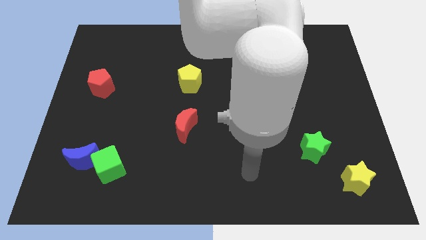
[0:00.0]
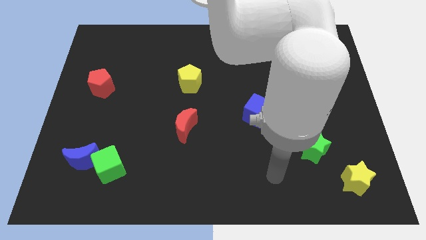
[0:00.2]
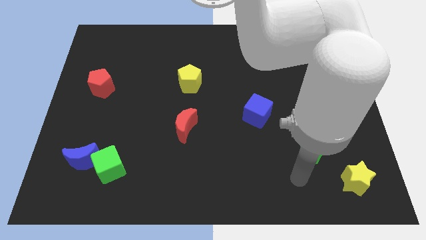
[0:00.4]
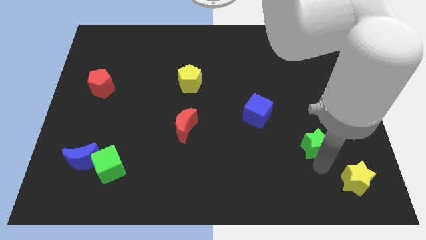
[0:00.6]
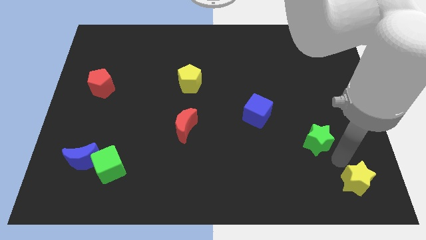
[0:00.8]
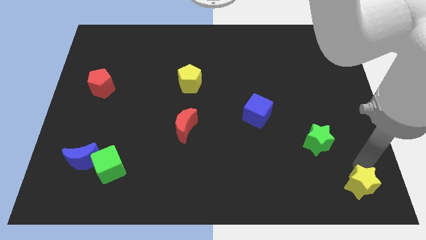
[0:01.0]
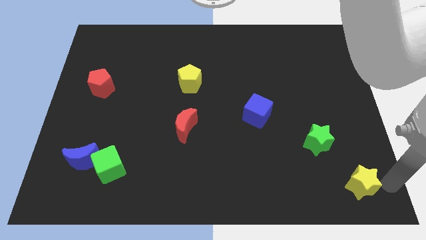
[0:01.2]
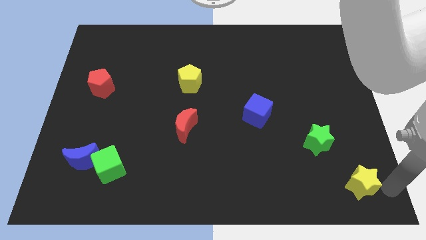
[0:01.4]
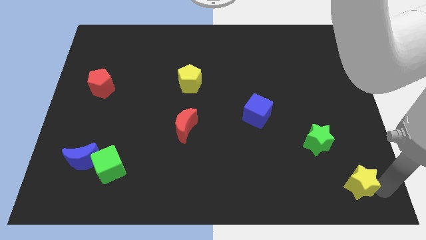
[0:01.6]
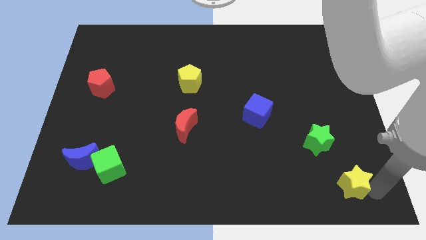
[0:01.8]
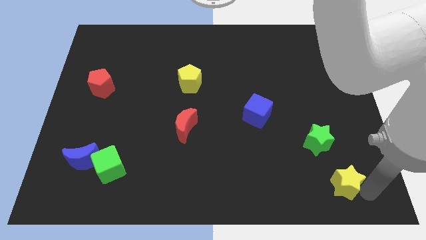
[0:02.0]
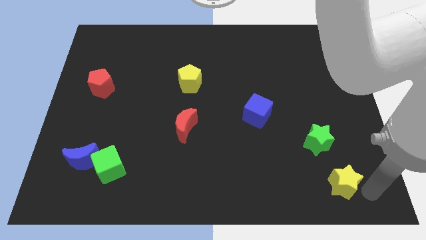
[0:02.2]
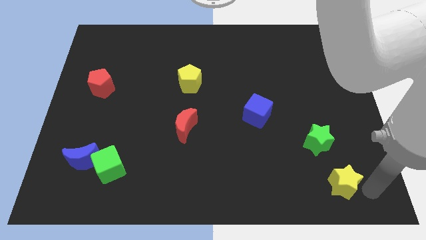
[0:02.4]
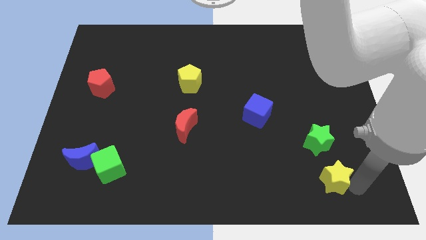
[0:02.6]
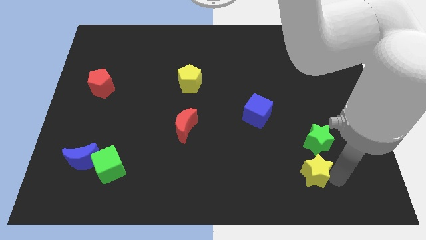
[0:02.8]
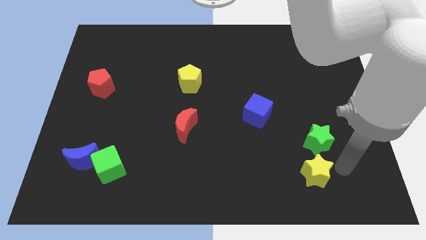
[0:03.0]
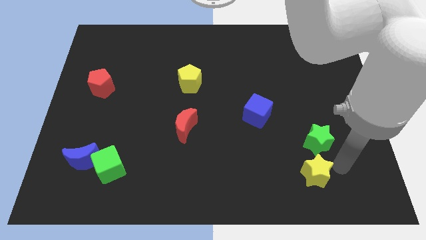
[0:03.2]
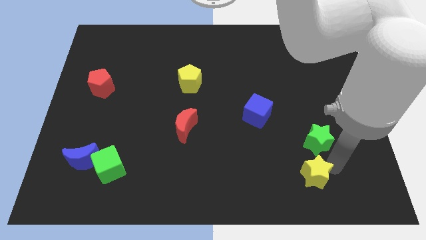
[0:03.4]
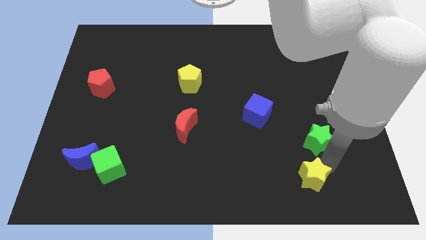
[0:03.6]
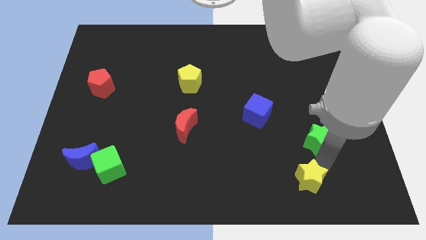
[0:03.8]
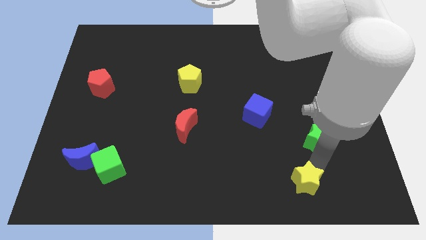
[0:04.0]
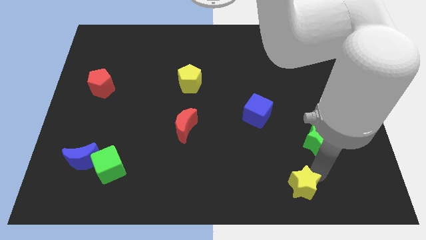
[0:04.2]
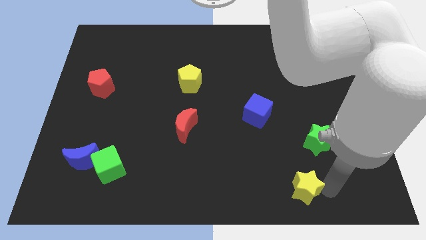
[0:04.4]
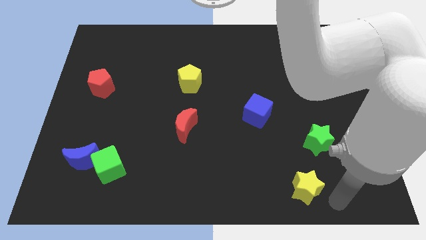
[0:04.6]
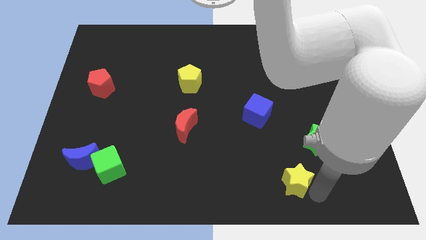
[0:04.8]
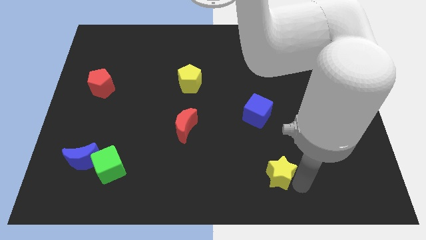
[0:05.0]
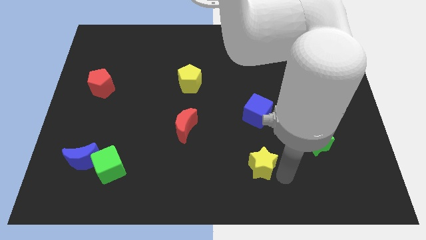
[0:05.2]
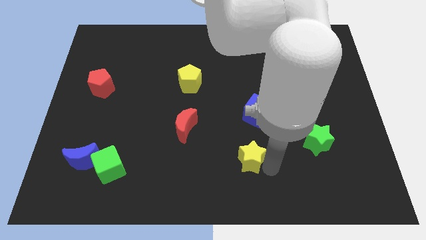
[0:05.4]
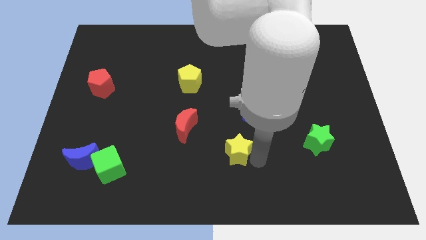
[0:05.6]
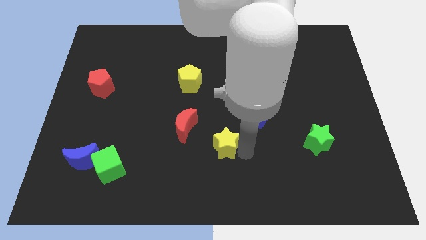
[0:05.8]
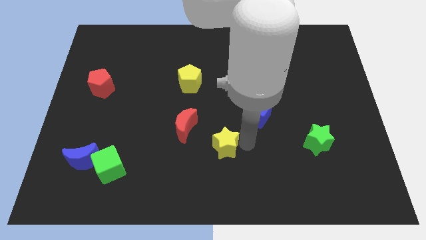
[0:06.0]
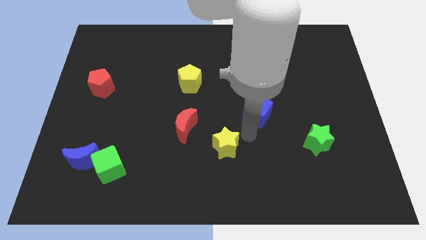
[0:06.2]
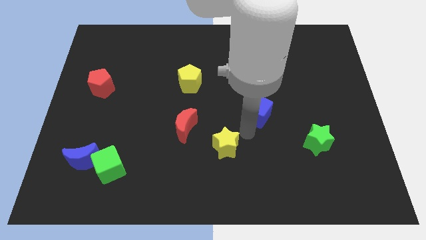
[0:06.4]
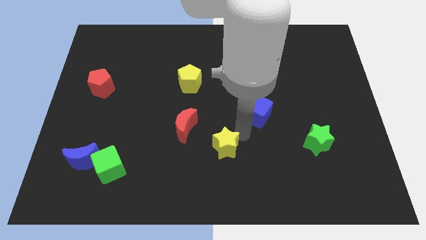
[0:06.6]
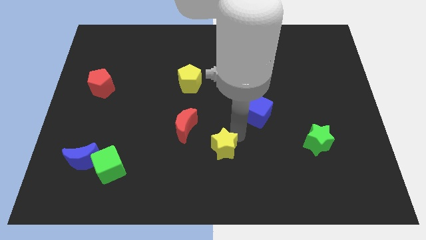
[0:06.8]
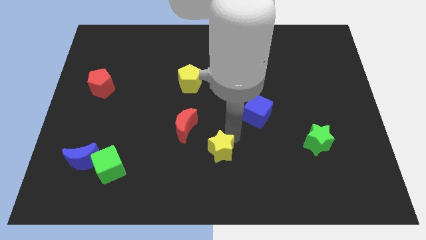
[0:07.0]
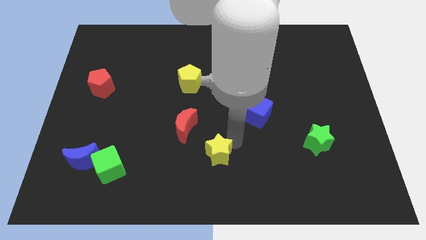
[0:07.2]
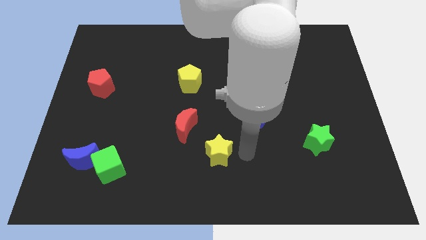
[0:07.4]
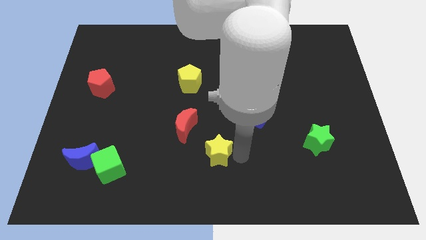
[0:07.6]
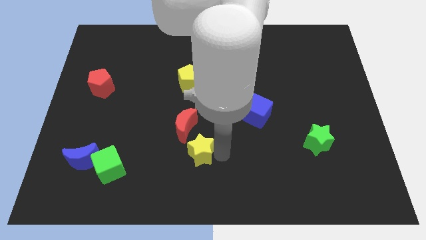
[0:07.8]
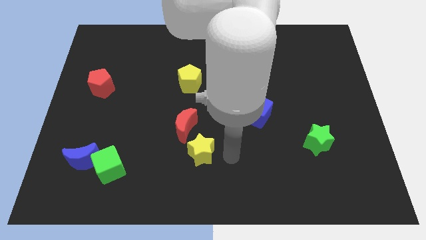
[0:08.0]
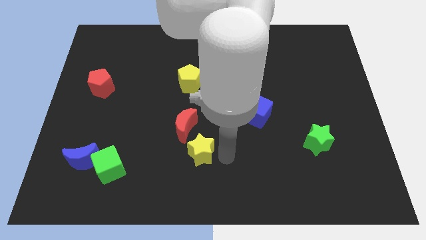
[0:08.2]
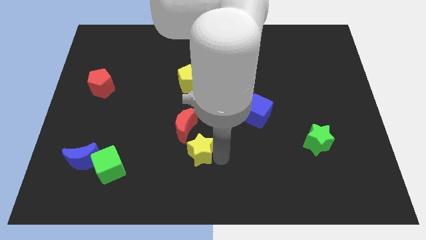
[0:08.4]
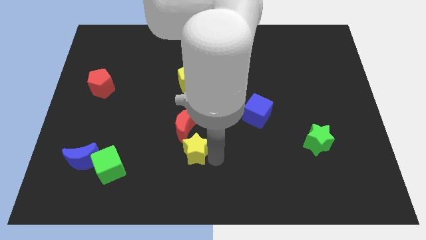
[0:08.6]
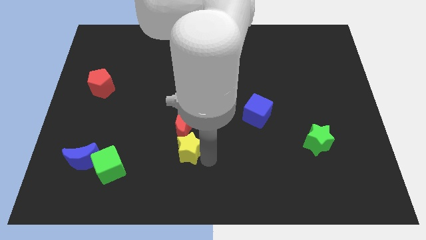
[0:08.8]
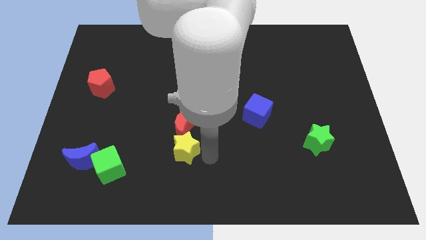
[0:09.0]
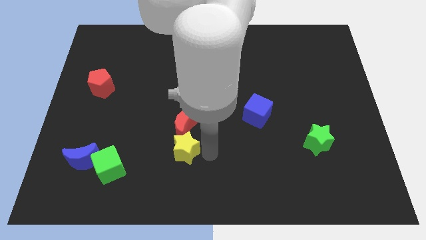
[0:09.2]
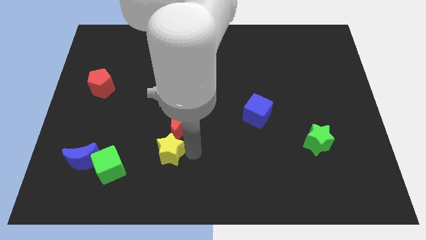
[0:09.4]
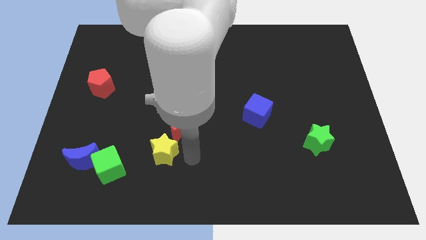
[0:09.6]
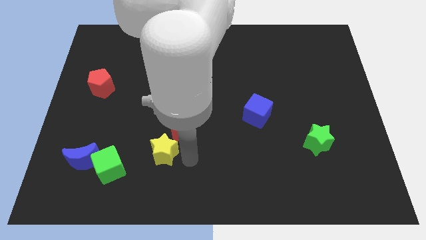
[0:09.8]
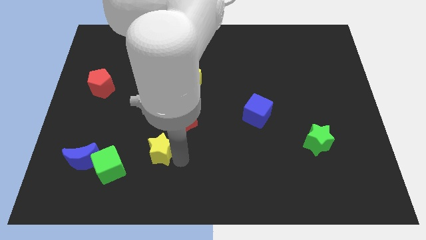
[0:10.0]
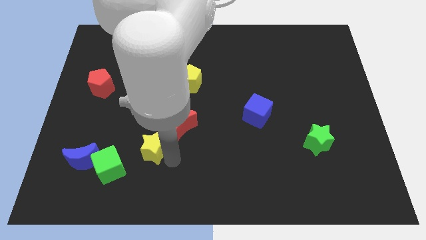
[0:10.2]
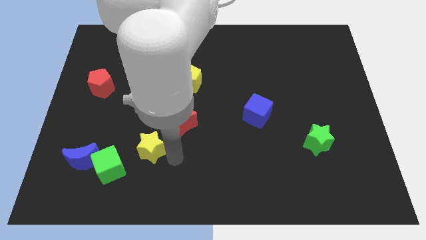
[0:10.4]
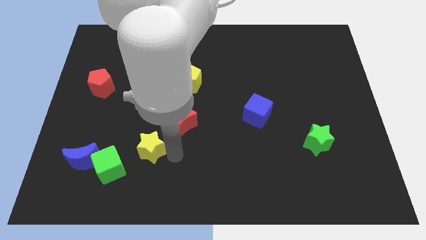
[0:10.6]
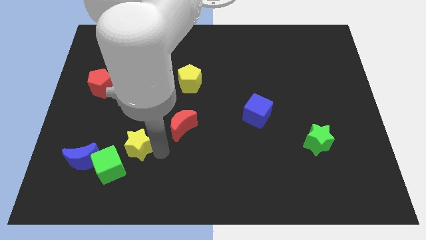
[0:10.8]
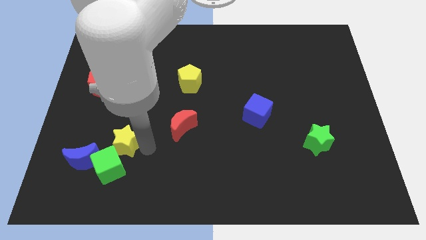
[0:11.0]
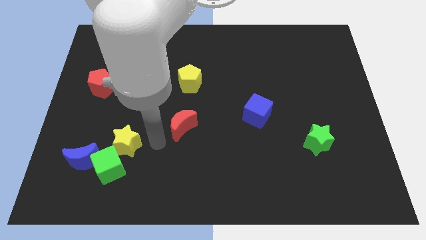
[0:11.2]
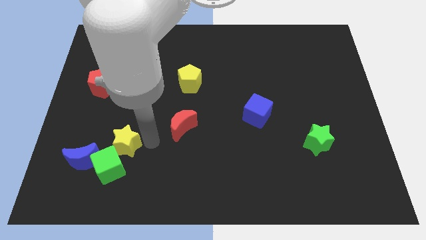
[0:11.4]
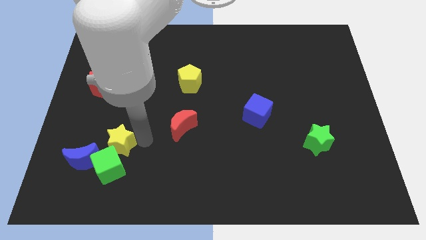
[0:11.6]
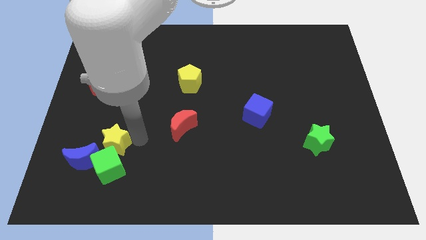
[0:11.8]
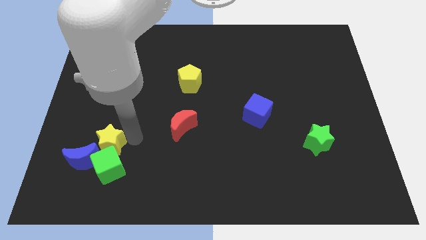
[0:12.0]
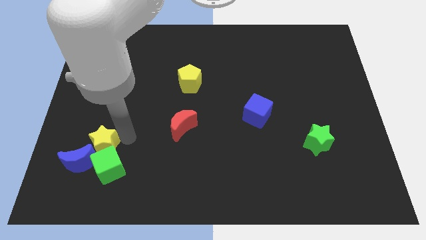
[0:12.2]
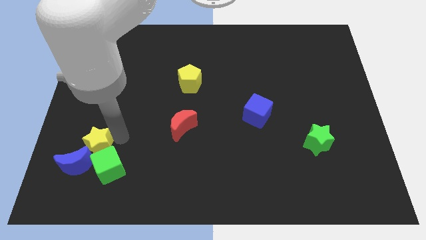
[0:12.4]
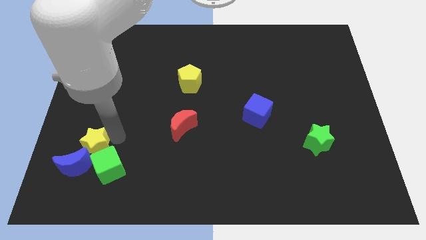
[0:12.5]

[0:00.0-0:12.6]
push the yellow star next to the blue moon

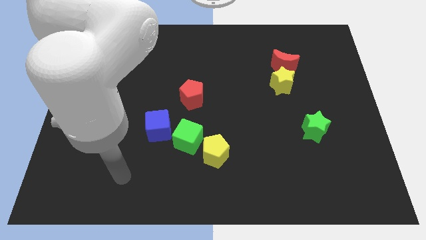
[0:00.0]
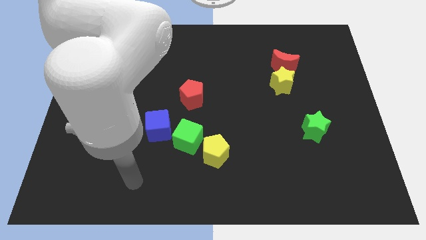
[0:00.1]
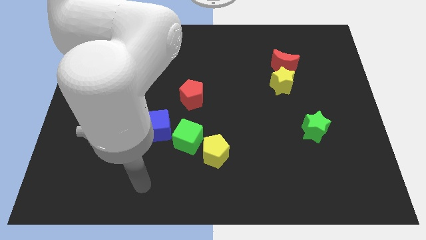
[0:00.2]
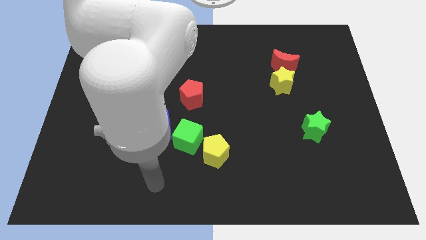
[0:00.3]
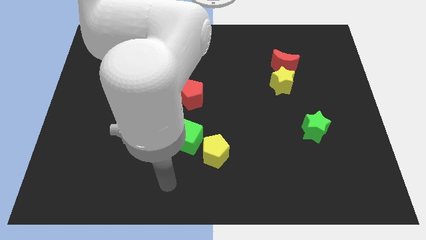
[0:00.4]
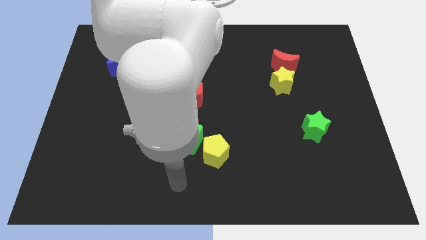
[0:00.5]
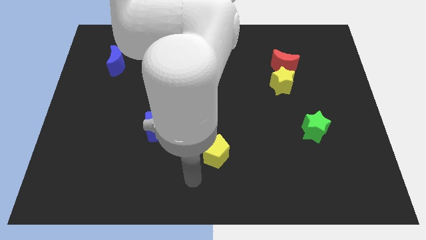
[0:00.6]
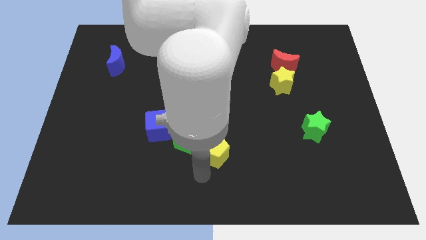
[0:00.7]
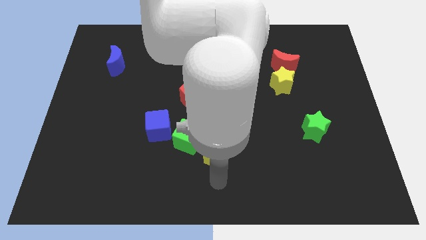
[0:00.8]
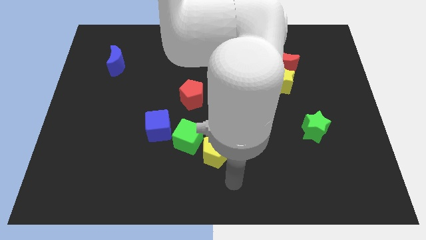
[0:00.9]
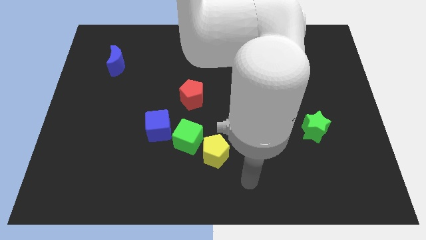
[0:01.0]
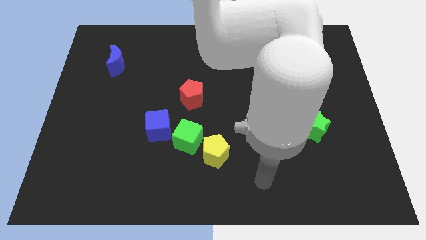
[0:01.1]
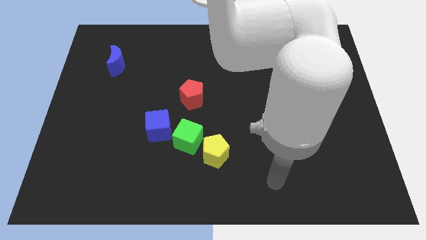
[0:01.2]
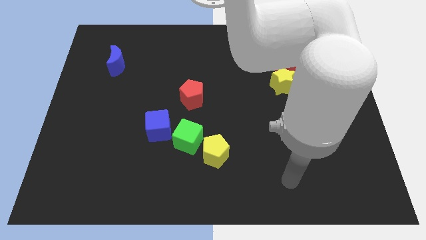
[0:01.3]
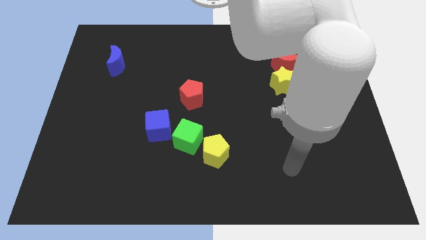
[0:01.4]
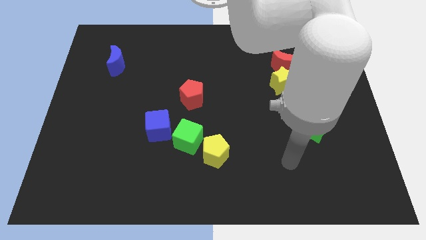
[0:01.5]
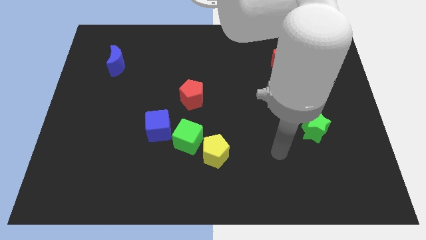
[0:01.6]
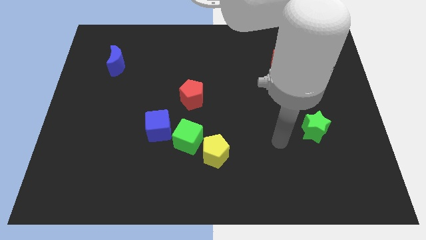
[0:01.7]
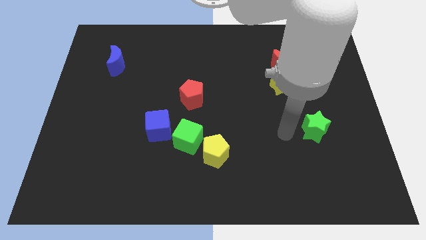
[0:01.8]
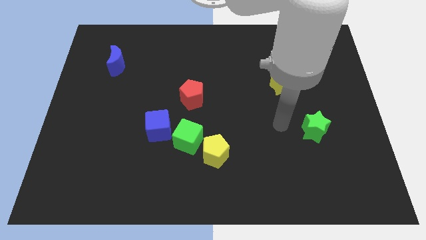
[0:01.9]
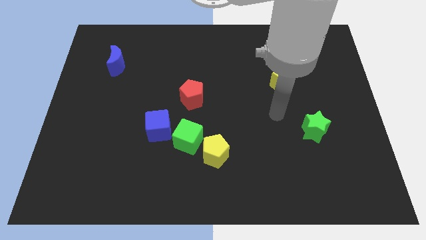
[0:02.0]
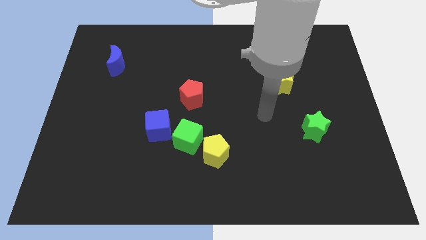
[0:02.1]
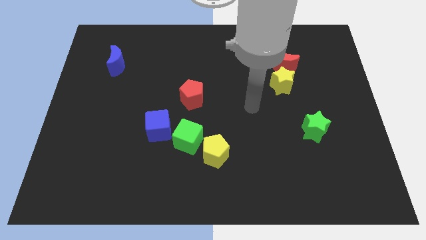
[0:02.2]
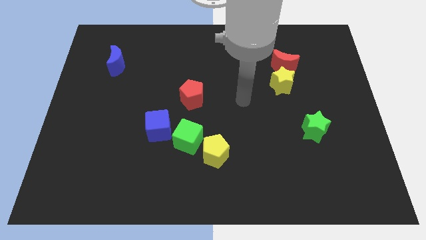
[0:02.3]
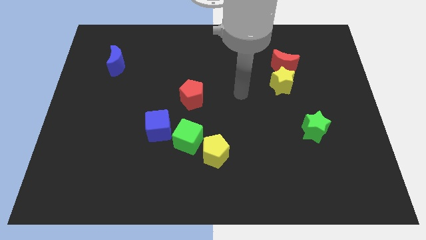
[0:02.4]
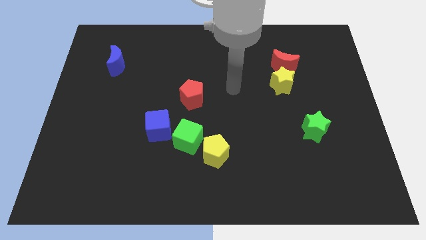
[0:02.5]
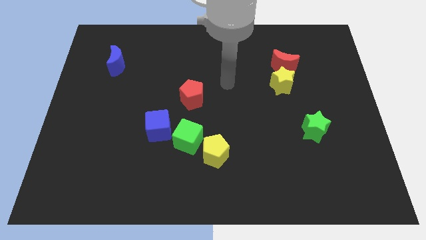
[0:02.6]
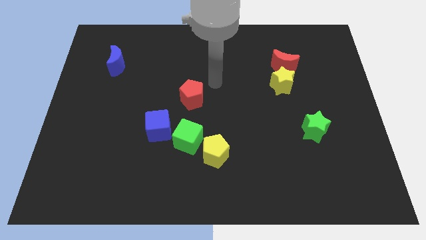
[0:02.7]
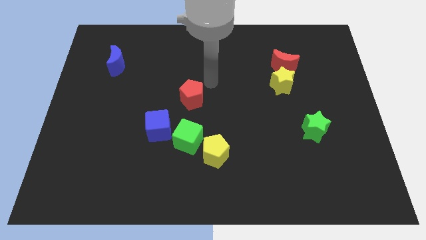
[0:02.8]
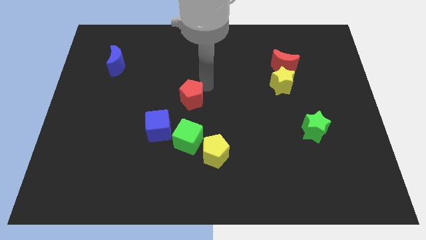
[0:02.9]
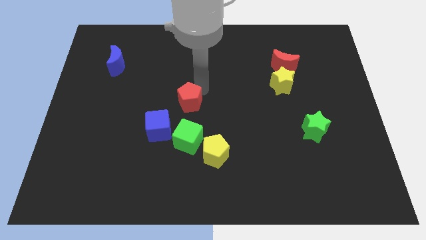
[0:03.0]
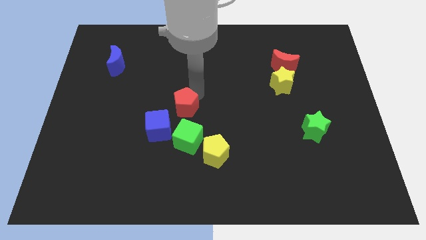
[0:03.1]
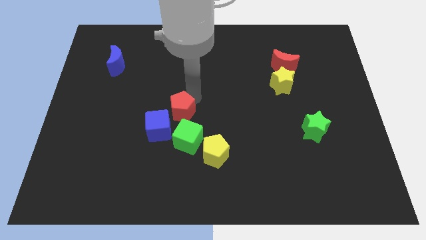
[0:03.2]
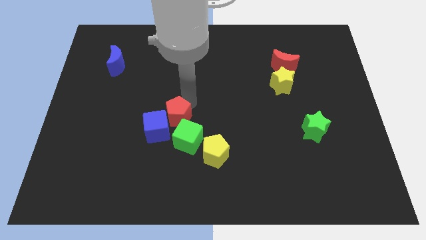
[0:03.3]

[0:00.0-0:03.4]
push the red pentagon to the blue cube
